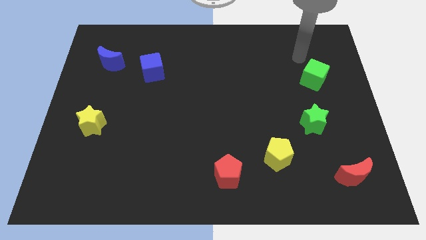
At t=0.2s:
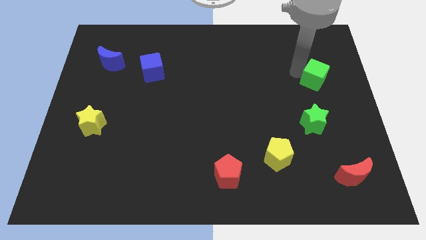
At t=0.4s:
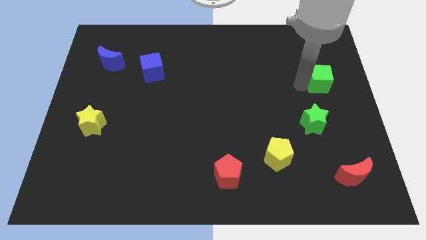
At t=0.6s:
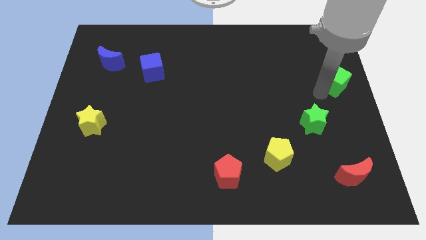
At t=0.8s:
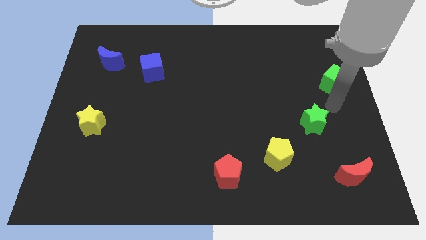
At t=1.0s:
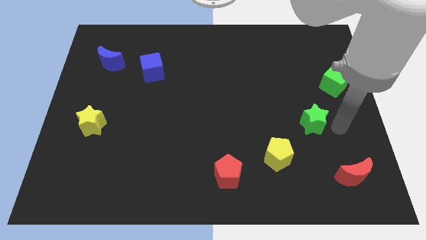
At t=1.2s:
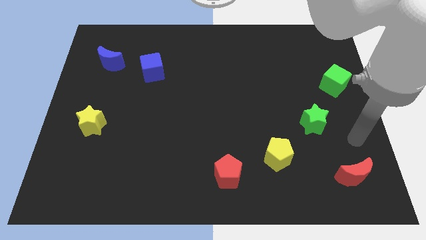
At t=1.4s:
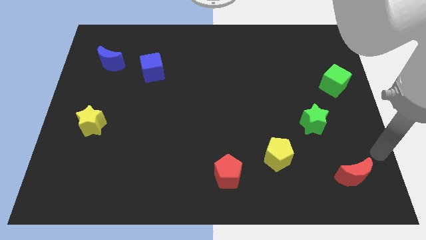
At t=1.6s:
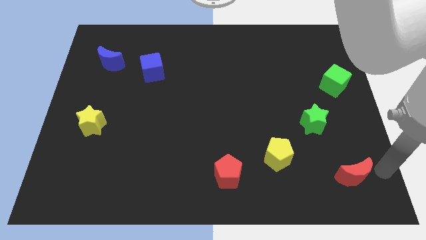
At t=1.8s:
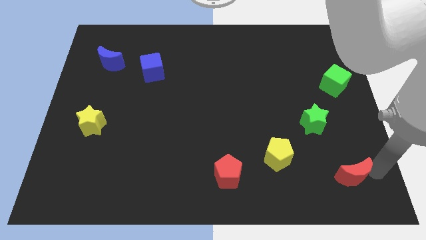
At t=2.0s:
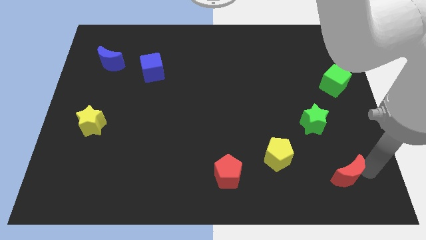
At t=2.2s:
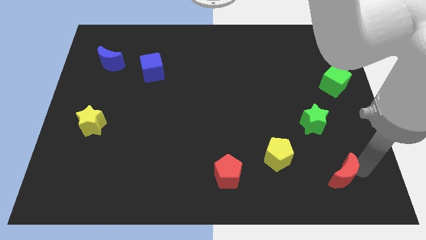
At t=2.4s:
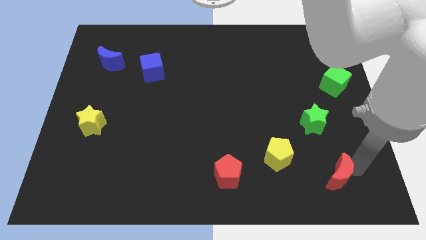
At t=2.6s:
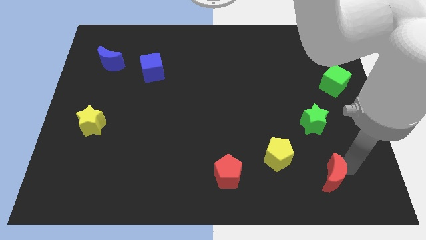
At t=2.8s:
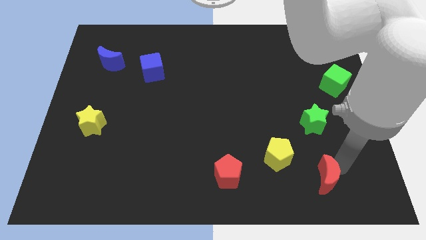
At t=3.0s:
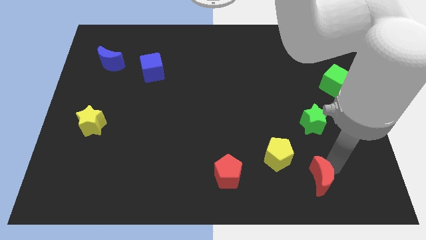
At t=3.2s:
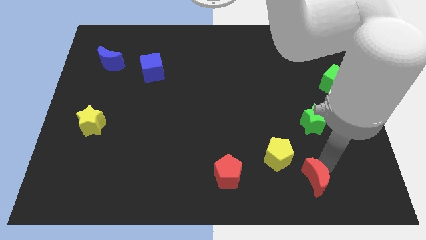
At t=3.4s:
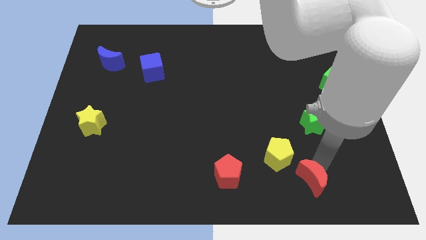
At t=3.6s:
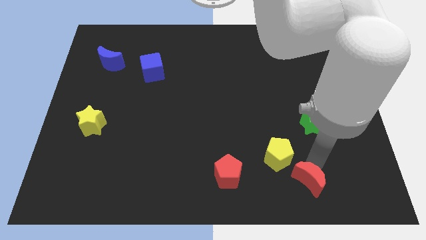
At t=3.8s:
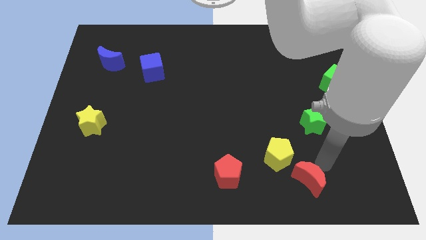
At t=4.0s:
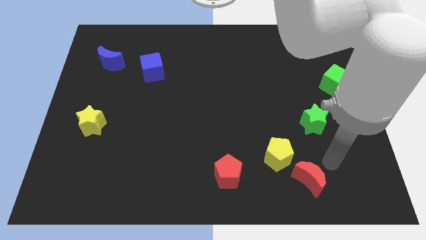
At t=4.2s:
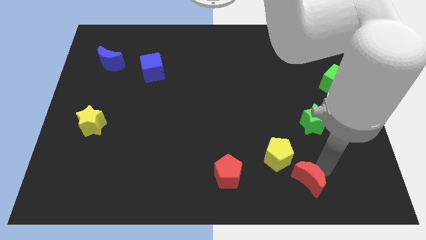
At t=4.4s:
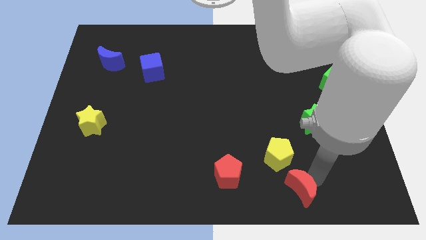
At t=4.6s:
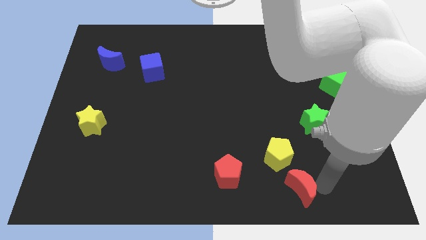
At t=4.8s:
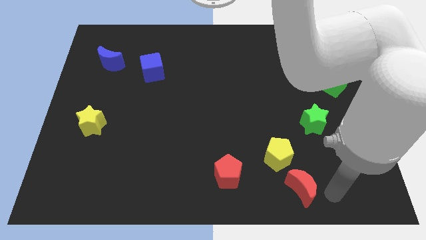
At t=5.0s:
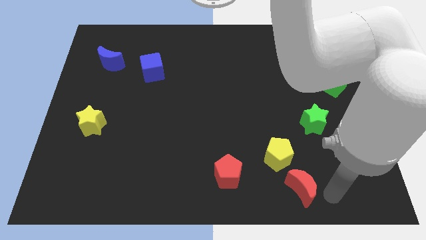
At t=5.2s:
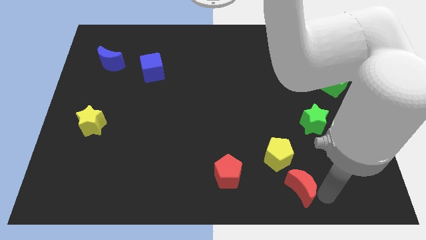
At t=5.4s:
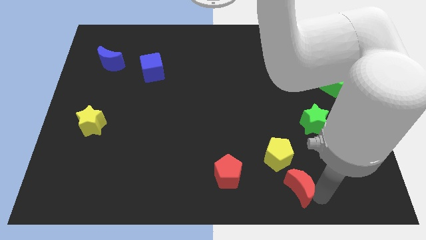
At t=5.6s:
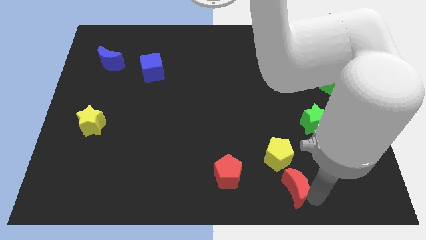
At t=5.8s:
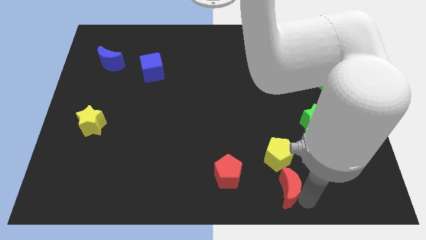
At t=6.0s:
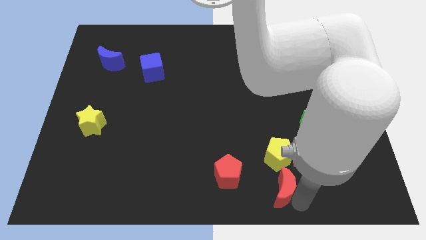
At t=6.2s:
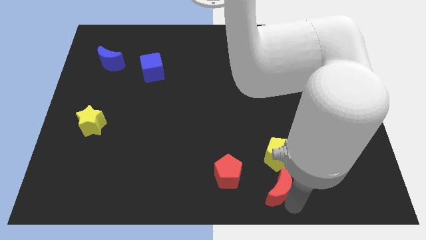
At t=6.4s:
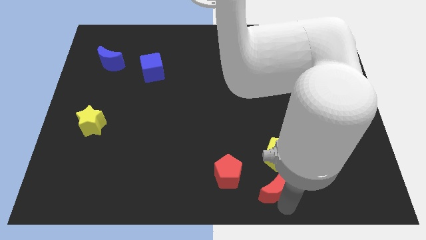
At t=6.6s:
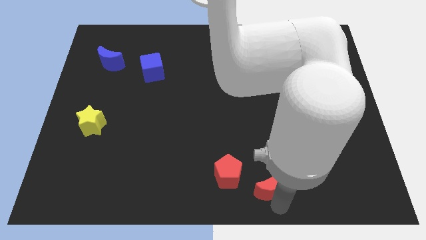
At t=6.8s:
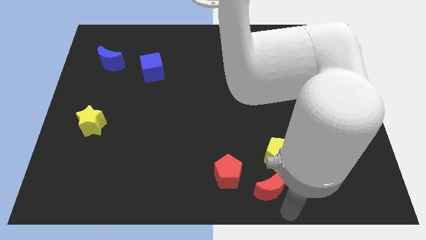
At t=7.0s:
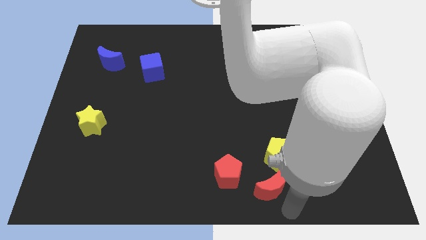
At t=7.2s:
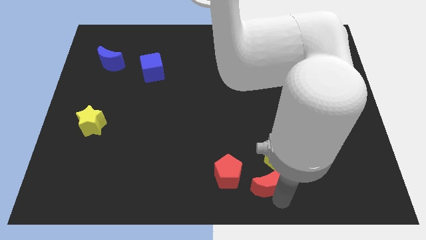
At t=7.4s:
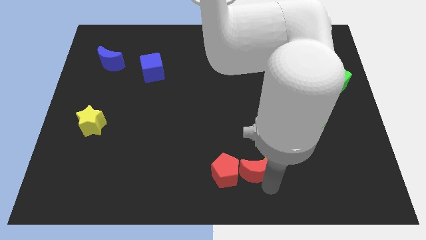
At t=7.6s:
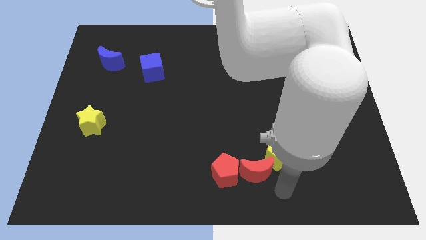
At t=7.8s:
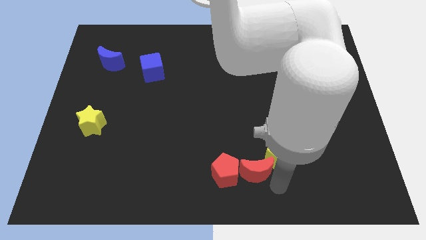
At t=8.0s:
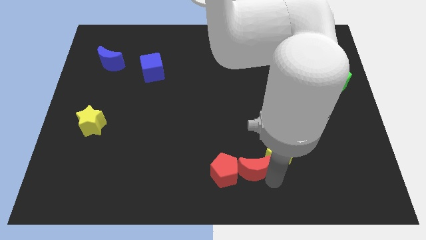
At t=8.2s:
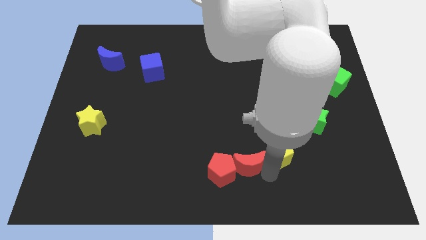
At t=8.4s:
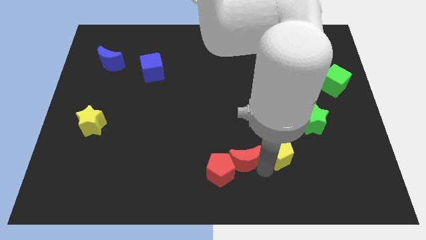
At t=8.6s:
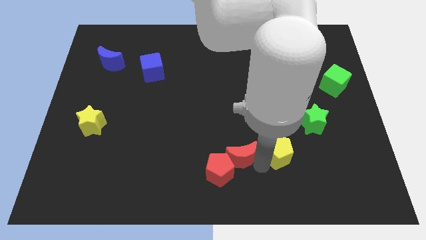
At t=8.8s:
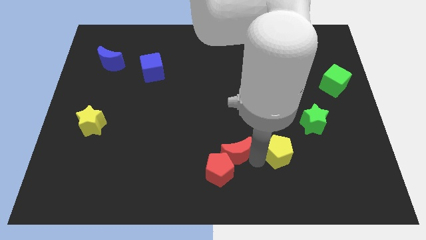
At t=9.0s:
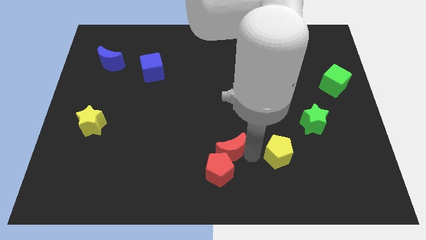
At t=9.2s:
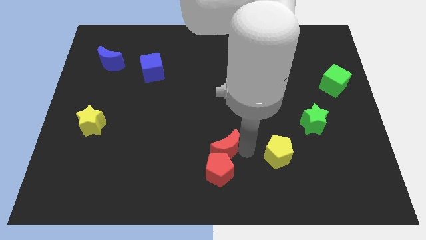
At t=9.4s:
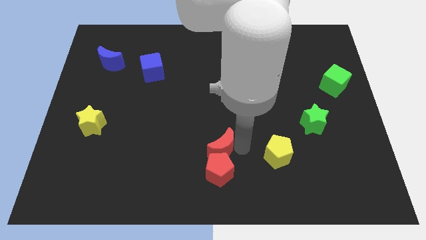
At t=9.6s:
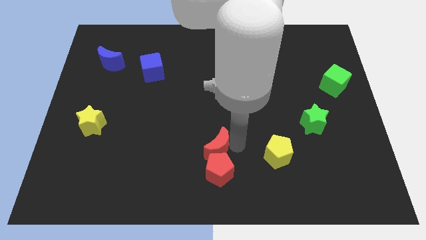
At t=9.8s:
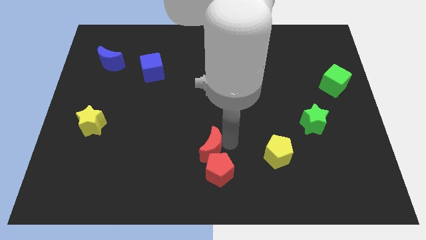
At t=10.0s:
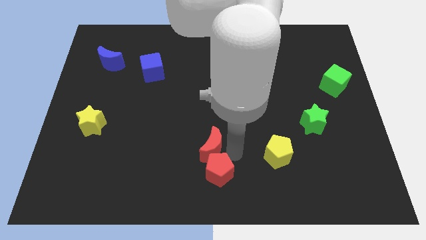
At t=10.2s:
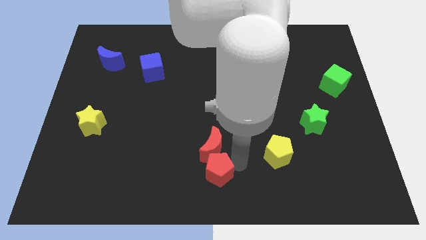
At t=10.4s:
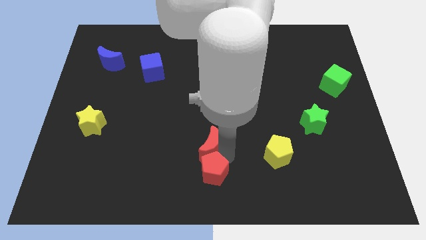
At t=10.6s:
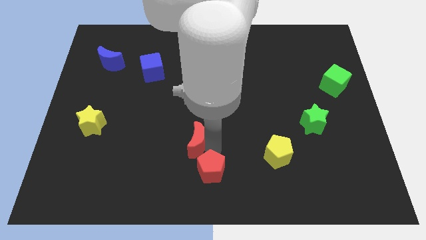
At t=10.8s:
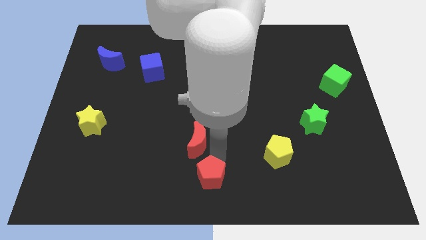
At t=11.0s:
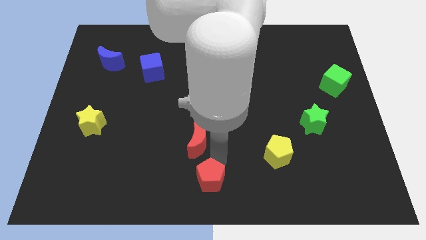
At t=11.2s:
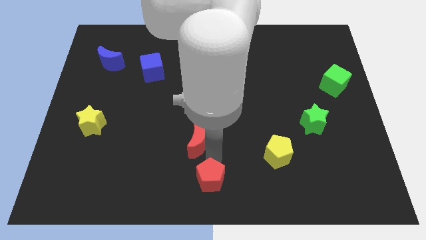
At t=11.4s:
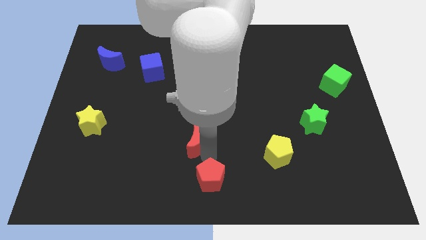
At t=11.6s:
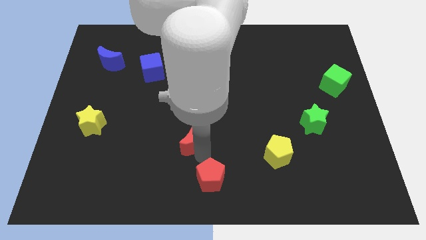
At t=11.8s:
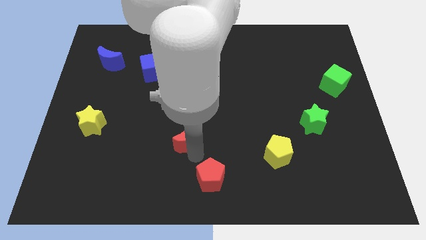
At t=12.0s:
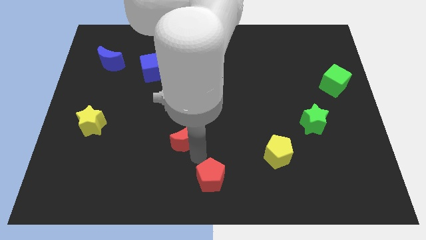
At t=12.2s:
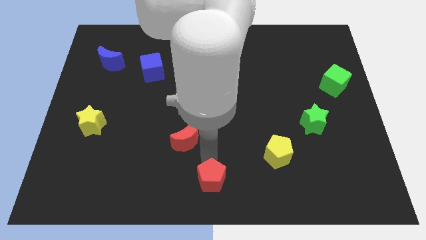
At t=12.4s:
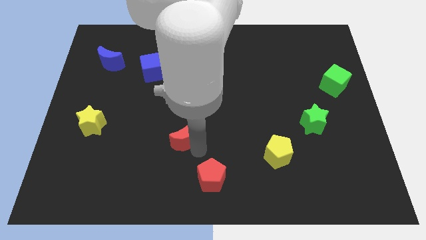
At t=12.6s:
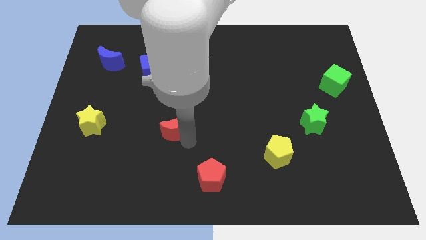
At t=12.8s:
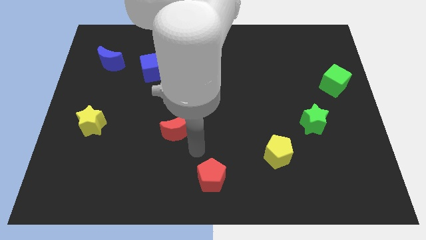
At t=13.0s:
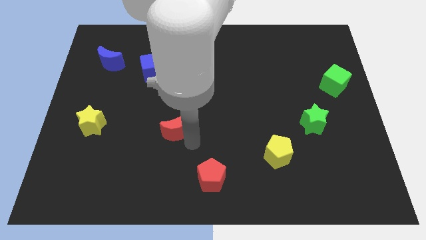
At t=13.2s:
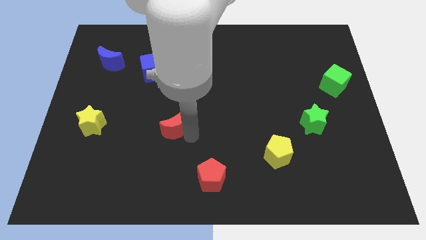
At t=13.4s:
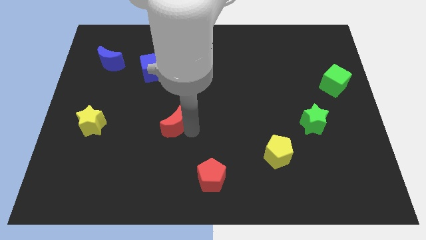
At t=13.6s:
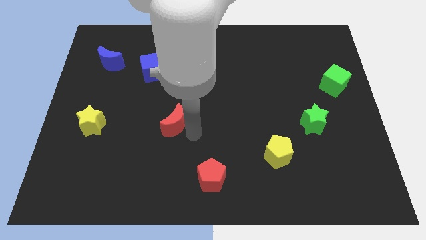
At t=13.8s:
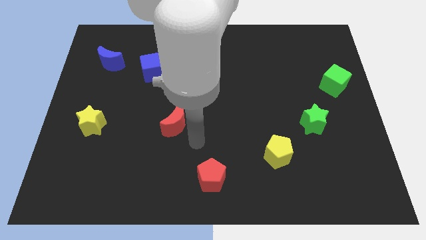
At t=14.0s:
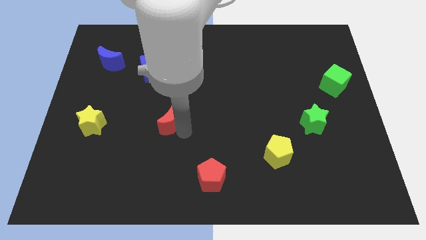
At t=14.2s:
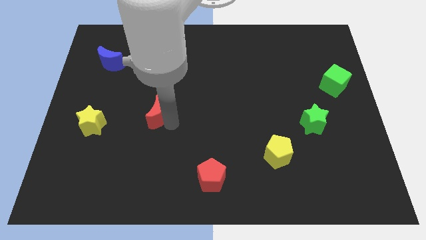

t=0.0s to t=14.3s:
put the red moon below the blue cube
